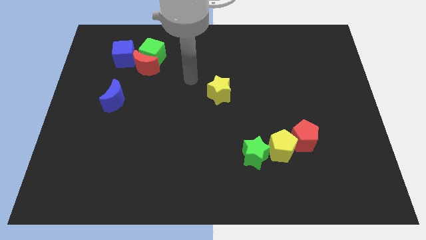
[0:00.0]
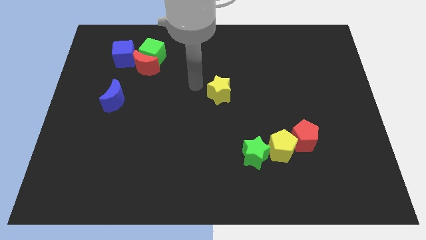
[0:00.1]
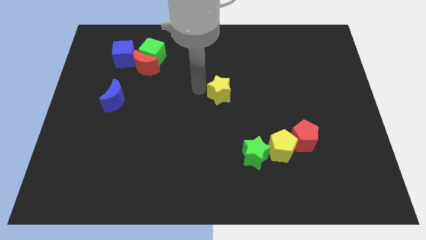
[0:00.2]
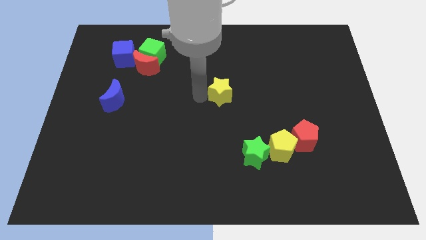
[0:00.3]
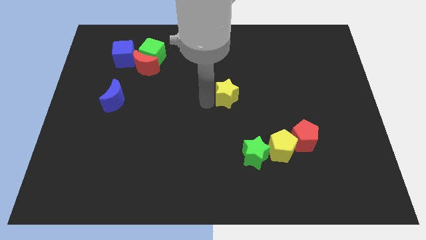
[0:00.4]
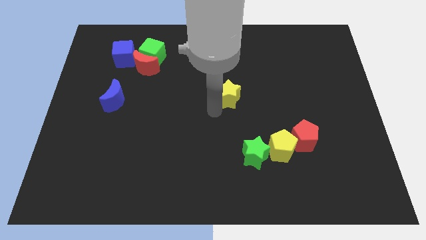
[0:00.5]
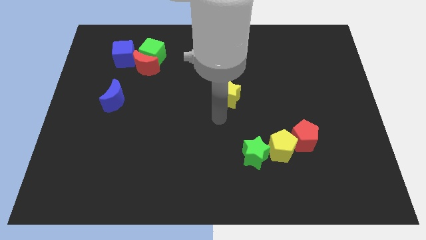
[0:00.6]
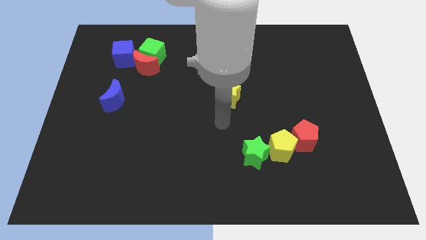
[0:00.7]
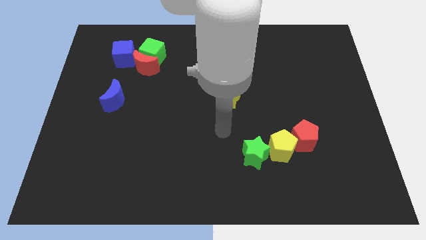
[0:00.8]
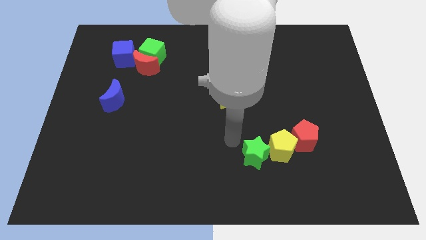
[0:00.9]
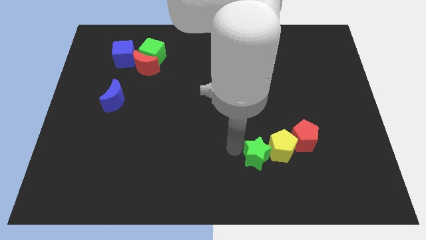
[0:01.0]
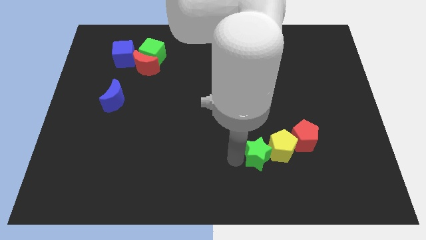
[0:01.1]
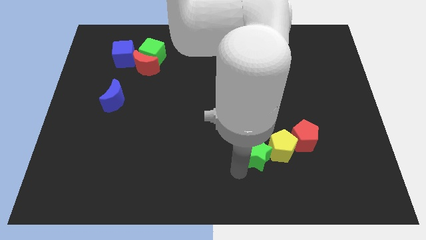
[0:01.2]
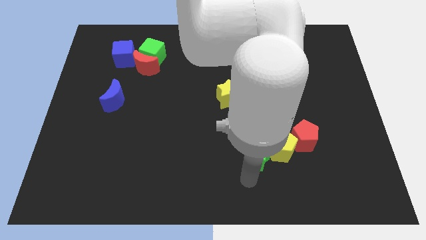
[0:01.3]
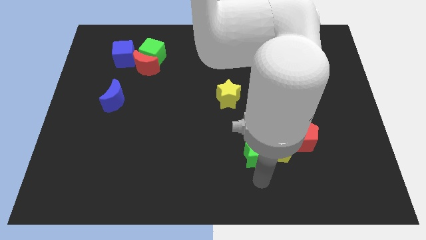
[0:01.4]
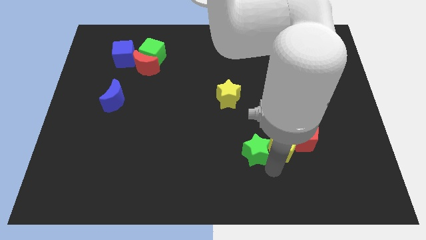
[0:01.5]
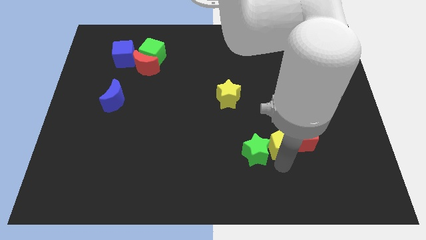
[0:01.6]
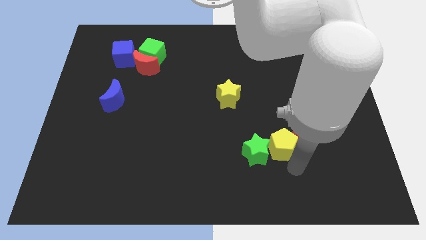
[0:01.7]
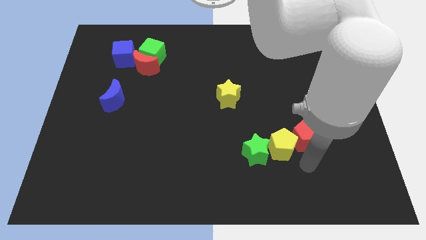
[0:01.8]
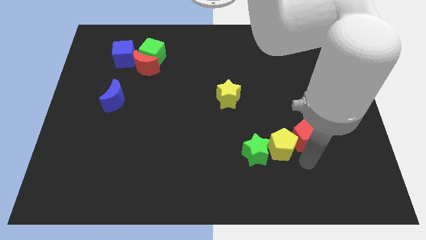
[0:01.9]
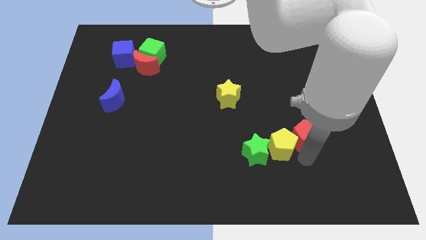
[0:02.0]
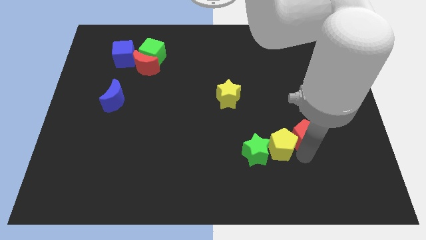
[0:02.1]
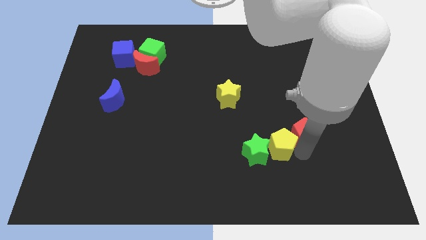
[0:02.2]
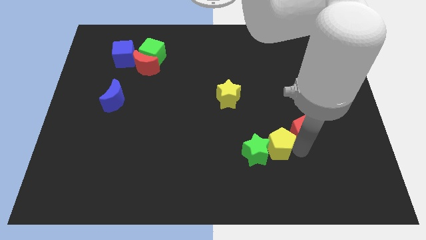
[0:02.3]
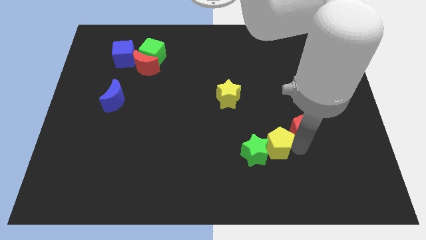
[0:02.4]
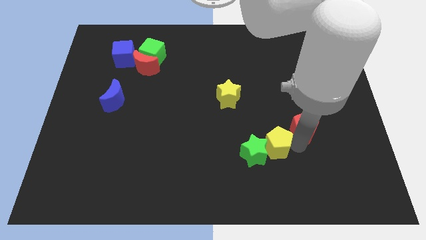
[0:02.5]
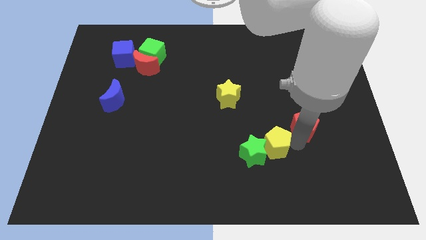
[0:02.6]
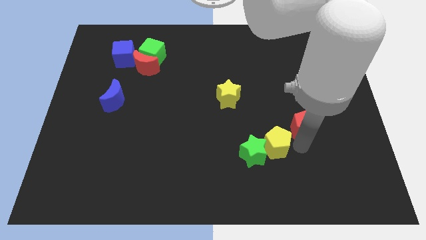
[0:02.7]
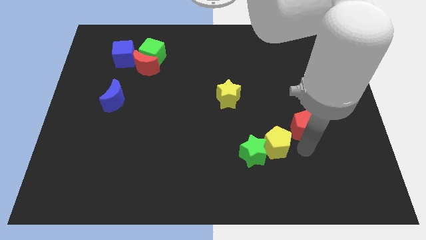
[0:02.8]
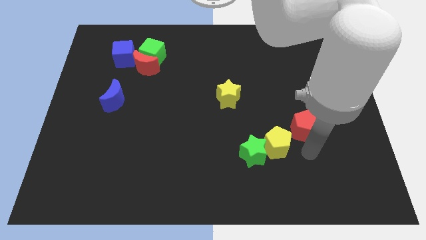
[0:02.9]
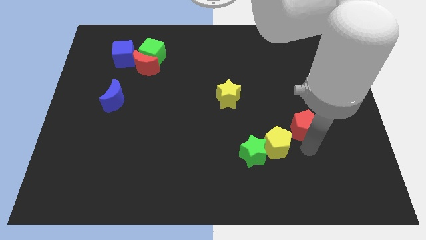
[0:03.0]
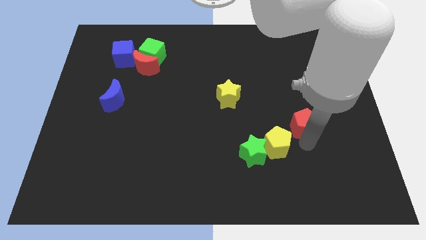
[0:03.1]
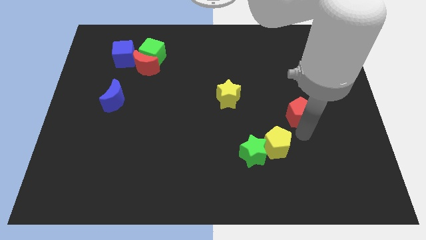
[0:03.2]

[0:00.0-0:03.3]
slide the red pentagon a little bit up

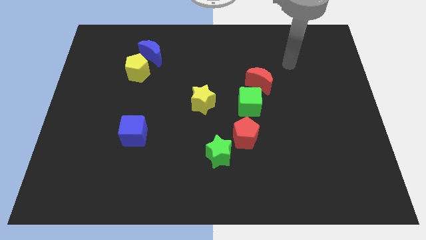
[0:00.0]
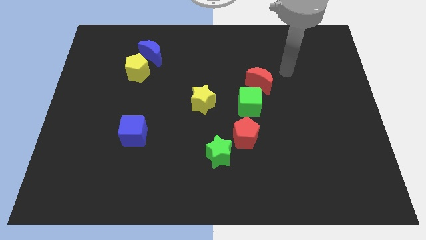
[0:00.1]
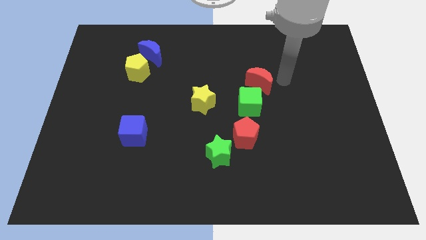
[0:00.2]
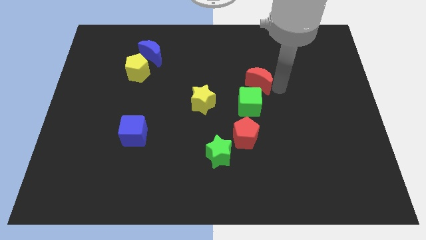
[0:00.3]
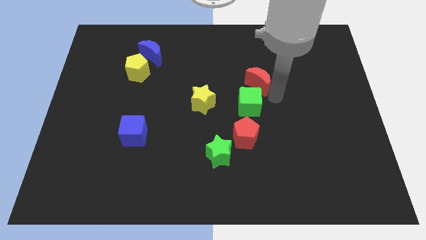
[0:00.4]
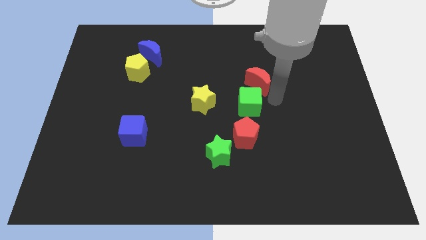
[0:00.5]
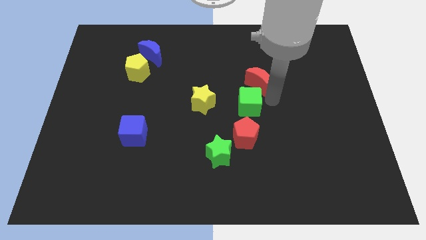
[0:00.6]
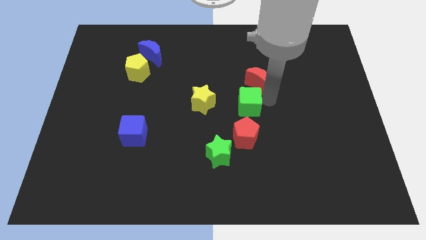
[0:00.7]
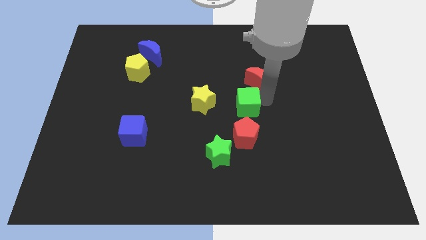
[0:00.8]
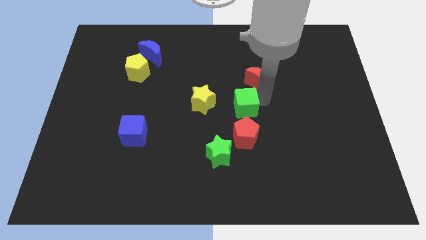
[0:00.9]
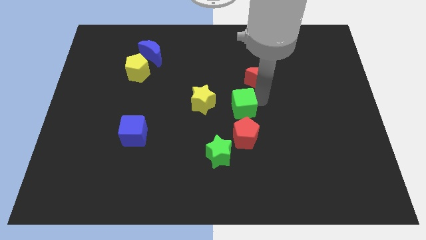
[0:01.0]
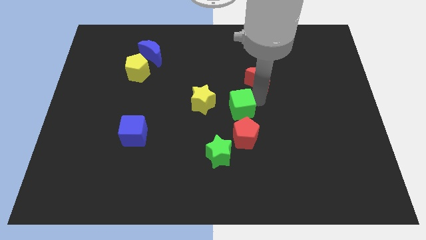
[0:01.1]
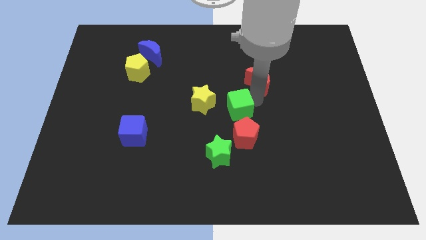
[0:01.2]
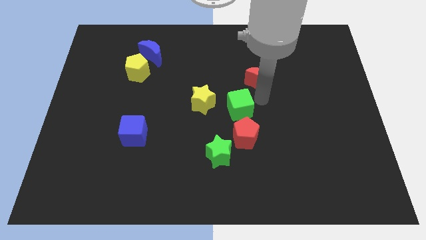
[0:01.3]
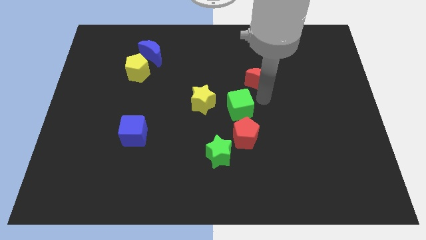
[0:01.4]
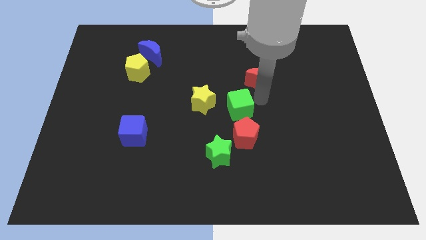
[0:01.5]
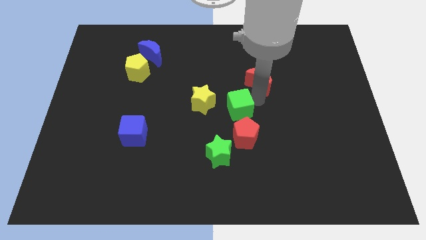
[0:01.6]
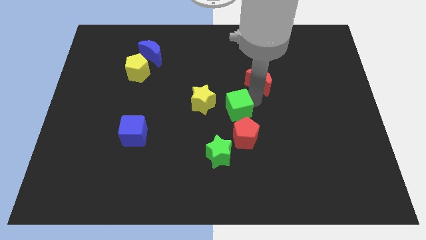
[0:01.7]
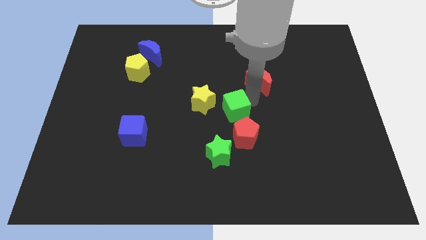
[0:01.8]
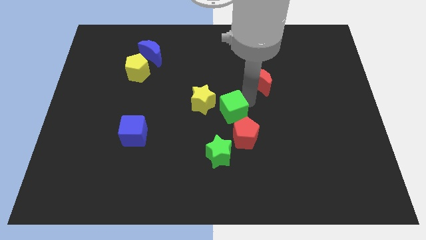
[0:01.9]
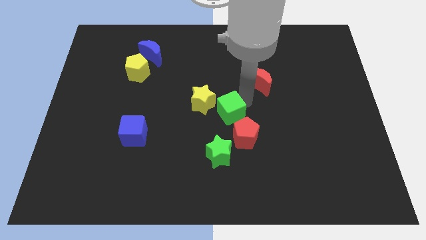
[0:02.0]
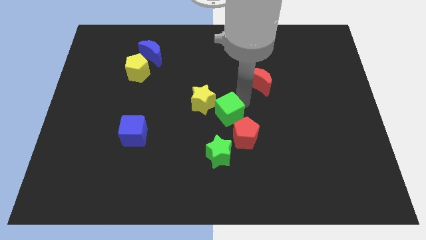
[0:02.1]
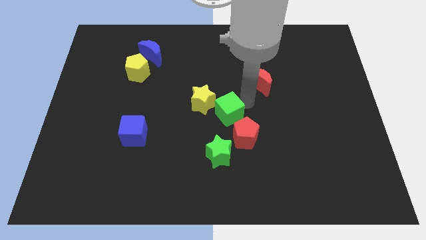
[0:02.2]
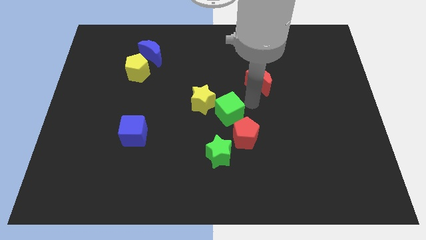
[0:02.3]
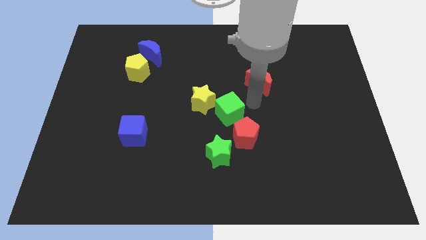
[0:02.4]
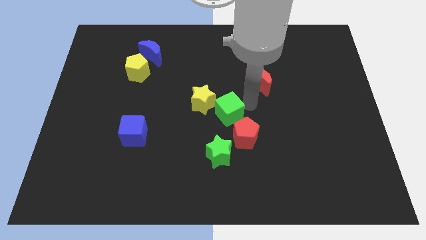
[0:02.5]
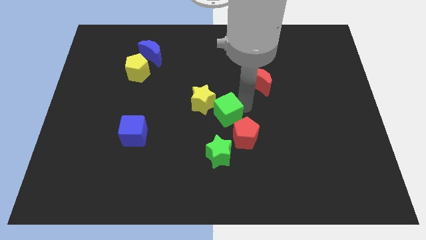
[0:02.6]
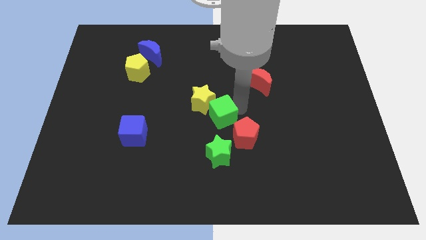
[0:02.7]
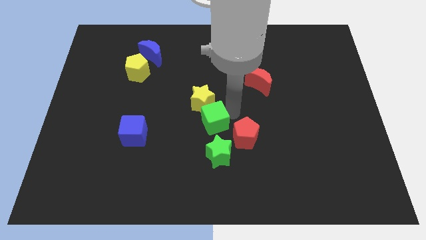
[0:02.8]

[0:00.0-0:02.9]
slide the green cube to the left a little

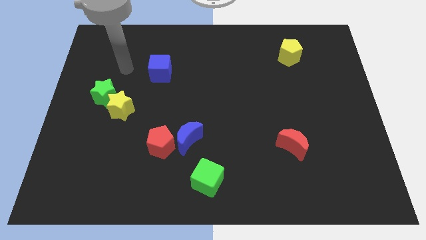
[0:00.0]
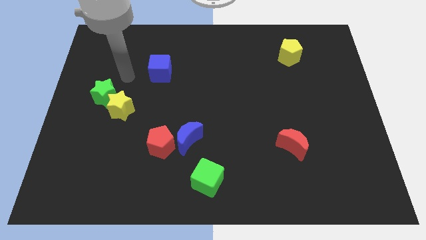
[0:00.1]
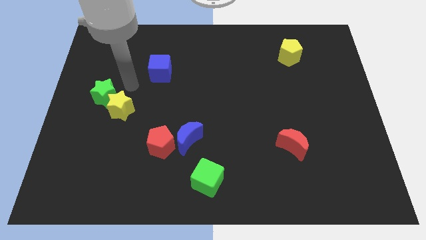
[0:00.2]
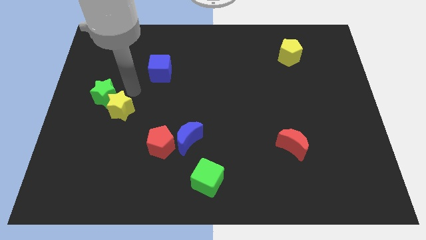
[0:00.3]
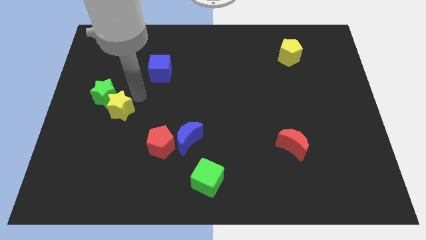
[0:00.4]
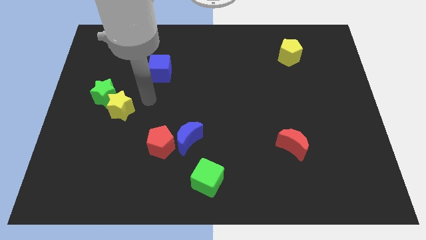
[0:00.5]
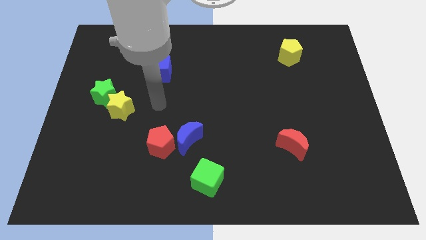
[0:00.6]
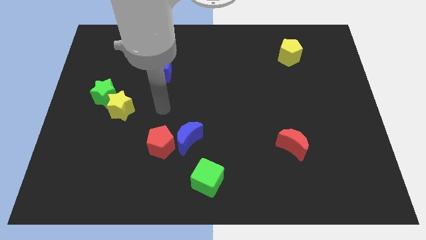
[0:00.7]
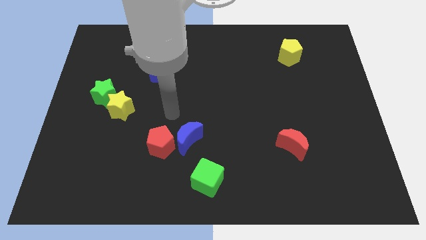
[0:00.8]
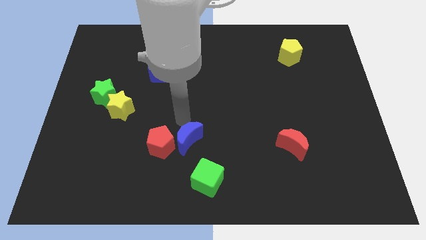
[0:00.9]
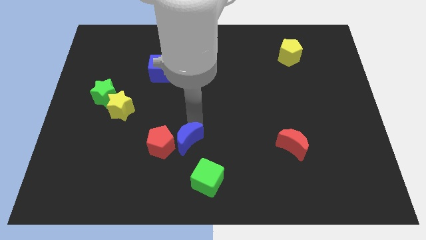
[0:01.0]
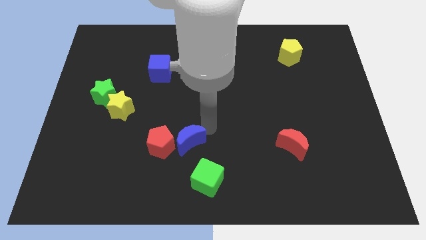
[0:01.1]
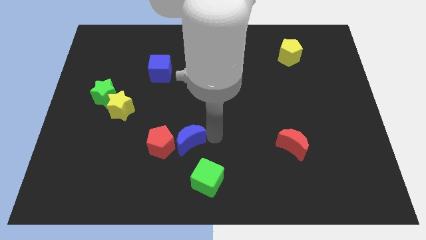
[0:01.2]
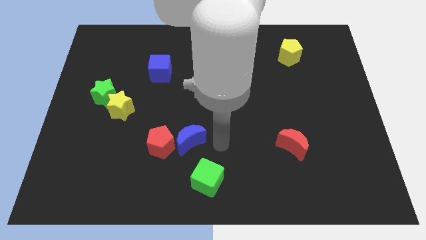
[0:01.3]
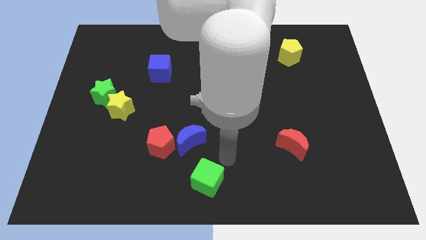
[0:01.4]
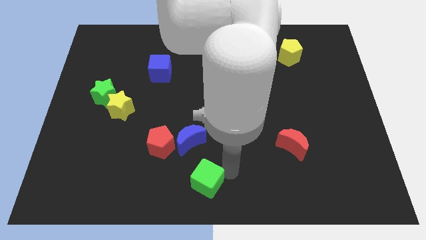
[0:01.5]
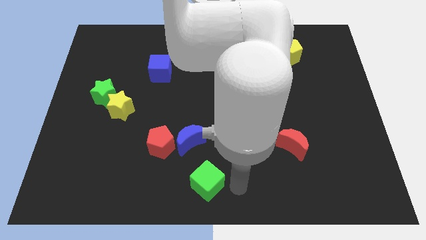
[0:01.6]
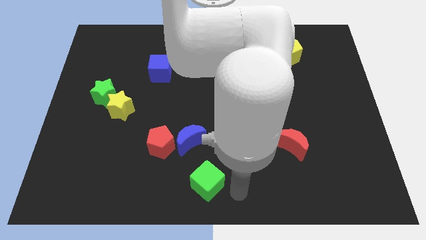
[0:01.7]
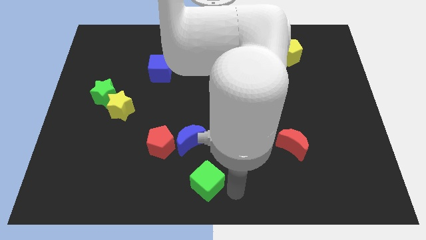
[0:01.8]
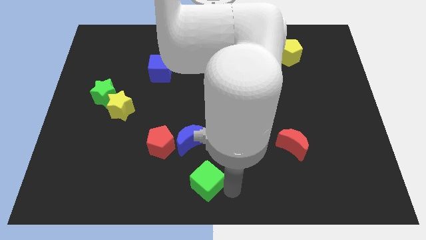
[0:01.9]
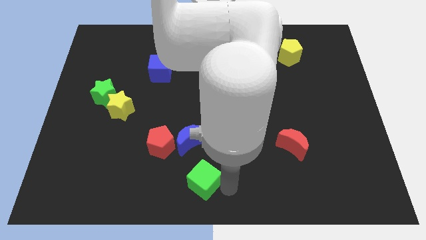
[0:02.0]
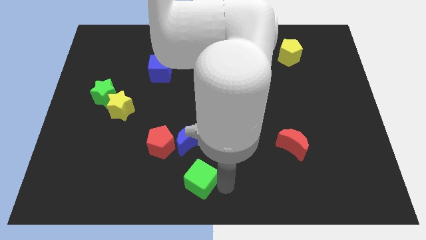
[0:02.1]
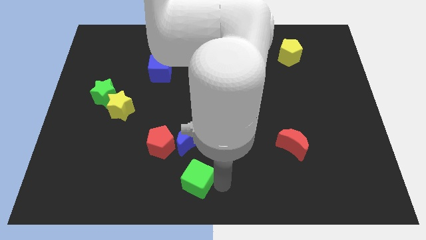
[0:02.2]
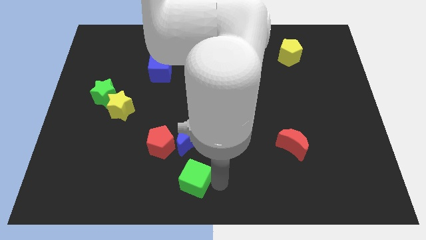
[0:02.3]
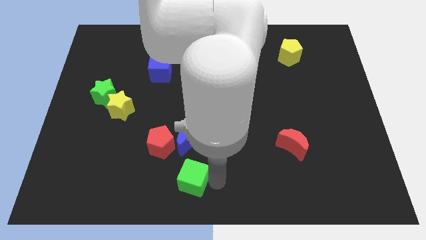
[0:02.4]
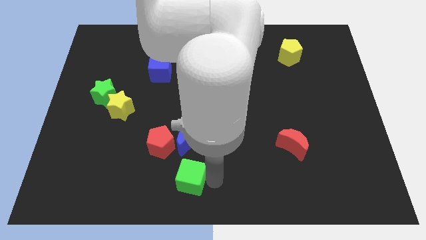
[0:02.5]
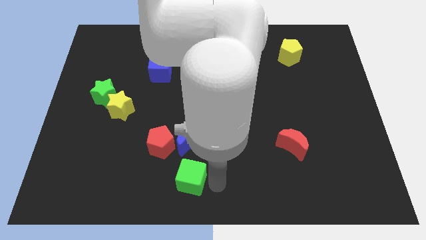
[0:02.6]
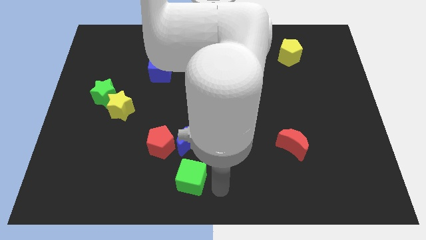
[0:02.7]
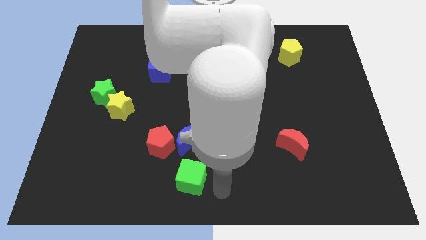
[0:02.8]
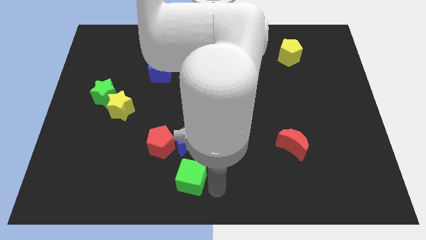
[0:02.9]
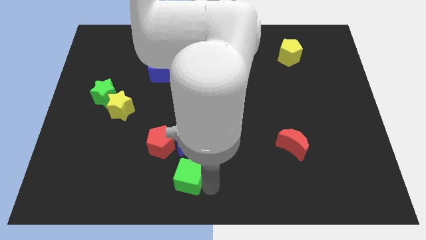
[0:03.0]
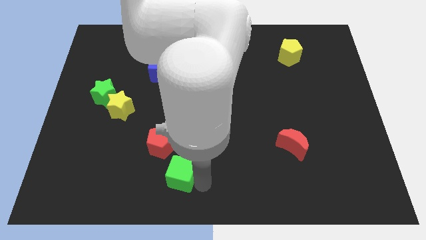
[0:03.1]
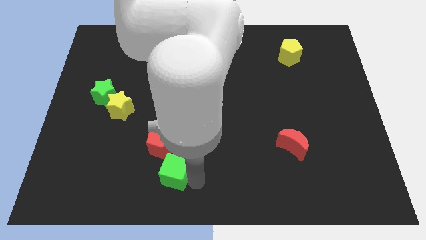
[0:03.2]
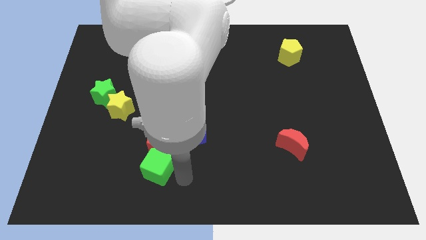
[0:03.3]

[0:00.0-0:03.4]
slightly slide the green cube upwards and then left
